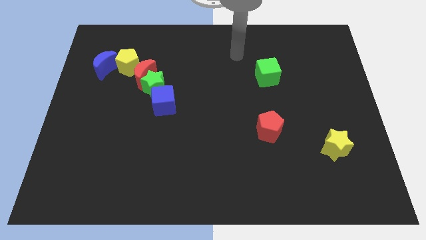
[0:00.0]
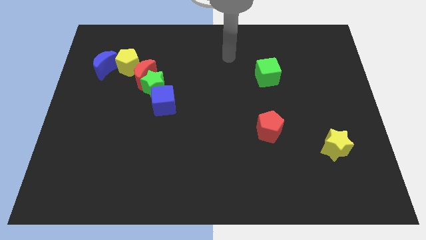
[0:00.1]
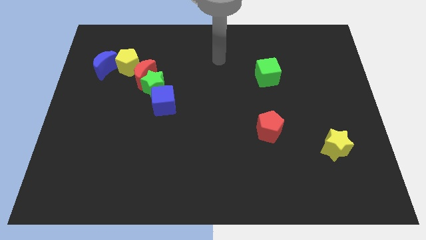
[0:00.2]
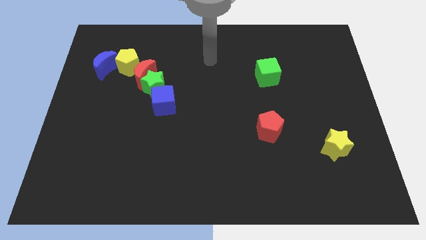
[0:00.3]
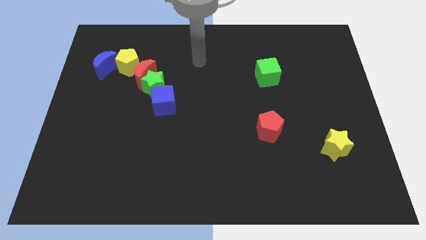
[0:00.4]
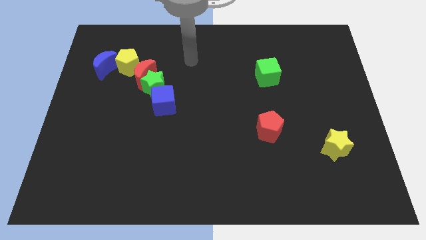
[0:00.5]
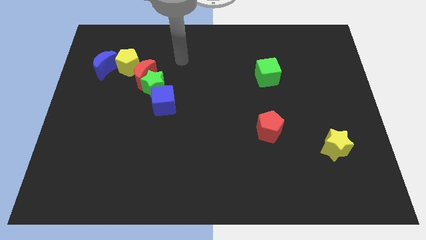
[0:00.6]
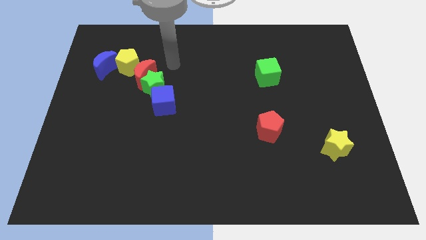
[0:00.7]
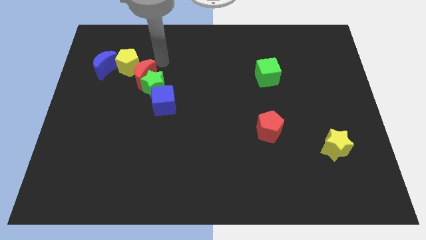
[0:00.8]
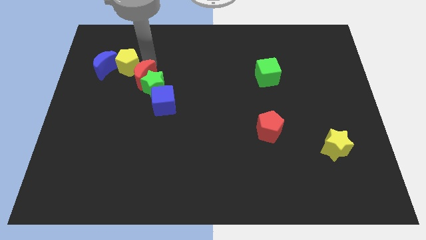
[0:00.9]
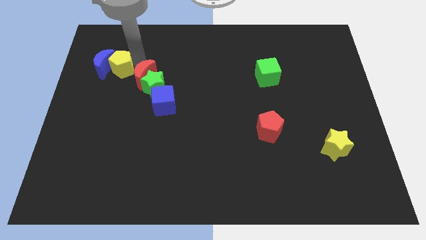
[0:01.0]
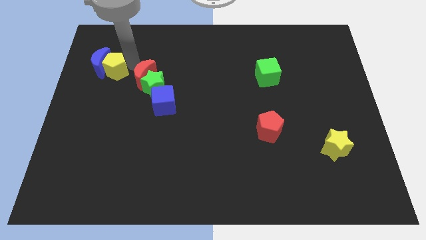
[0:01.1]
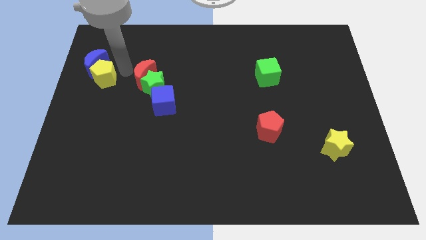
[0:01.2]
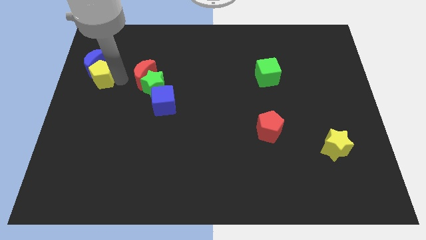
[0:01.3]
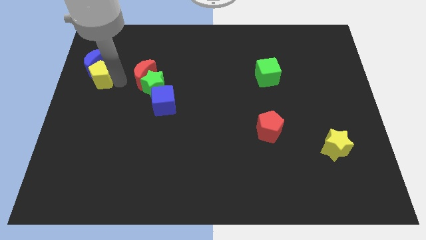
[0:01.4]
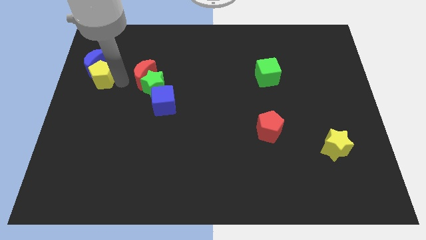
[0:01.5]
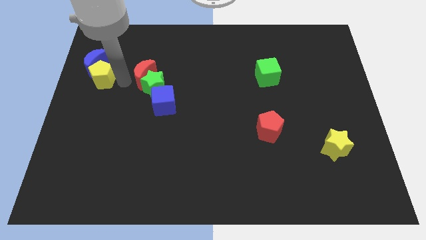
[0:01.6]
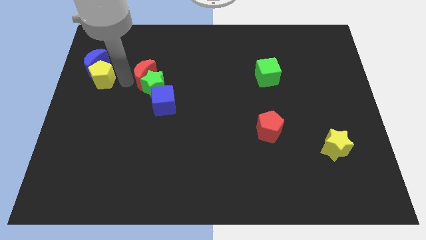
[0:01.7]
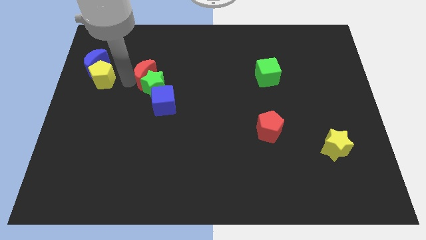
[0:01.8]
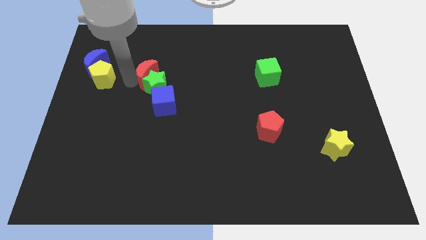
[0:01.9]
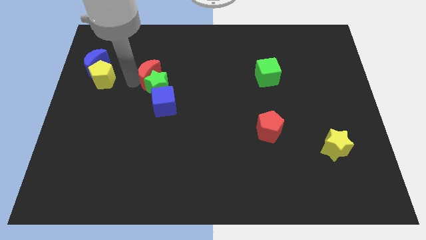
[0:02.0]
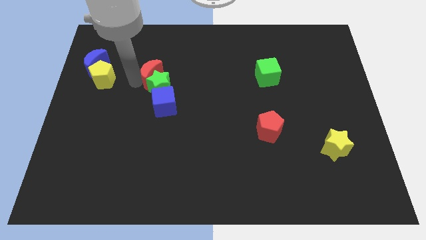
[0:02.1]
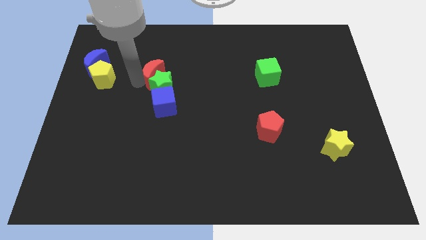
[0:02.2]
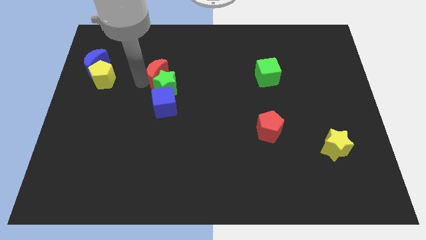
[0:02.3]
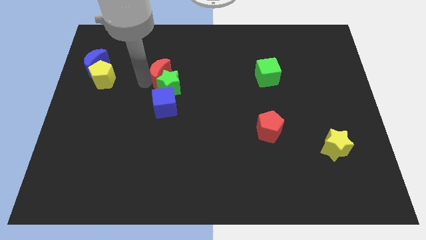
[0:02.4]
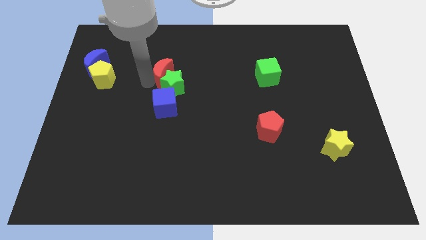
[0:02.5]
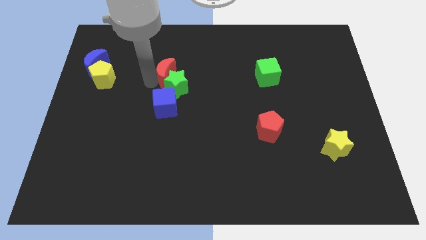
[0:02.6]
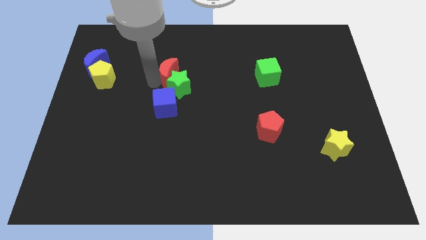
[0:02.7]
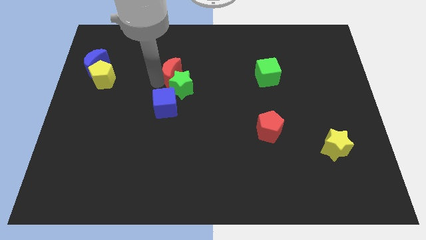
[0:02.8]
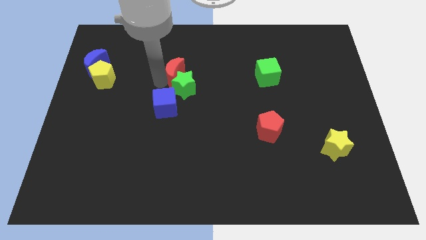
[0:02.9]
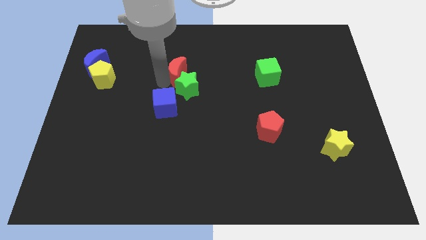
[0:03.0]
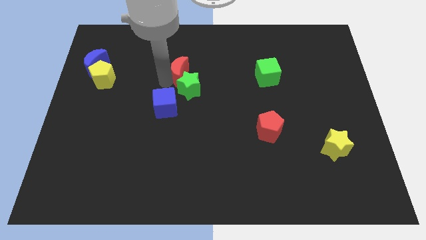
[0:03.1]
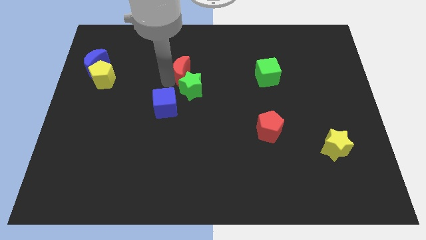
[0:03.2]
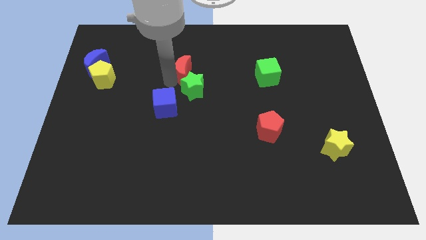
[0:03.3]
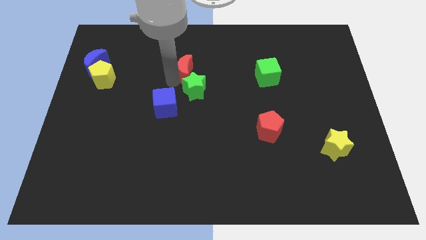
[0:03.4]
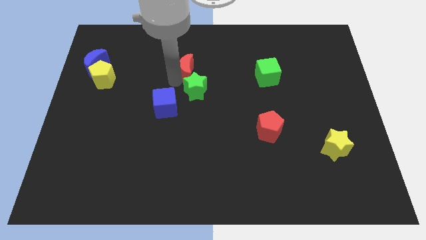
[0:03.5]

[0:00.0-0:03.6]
separate the red moon from the green star and yellow pentagon

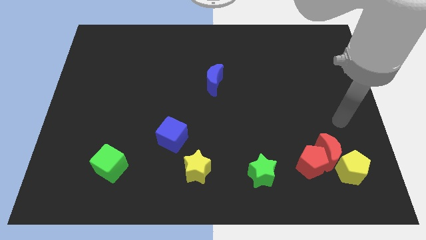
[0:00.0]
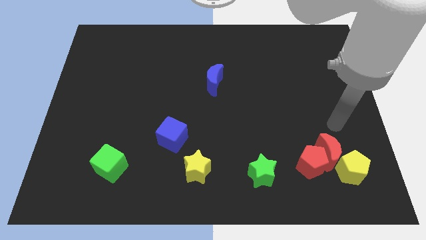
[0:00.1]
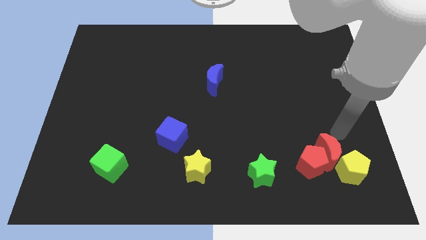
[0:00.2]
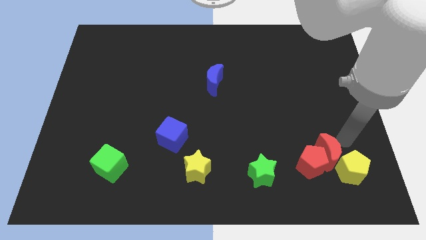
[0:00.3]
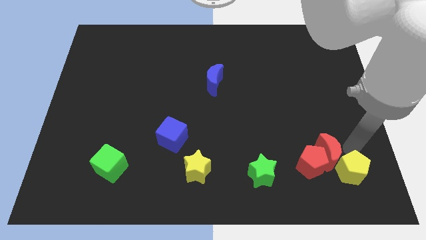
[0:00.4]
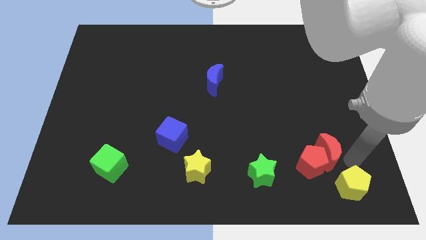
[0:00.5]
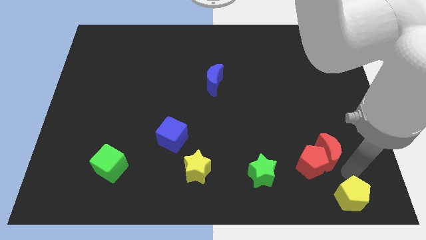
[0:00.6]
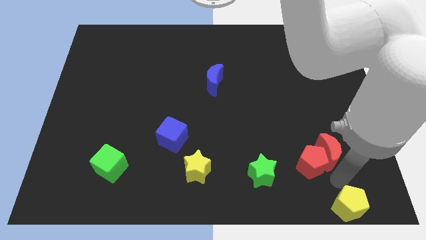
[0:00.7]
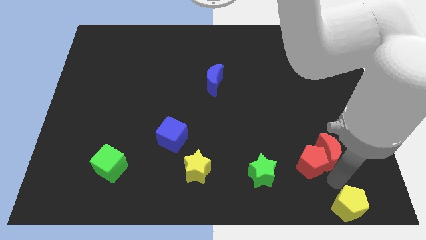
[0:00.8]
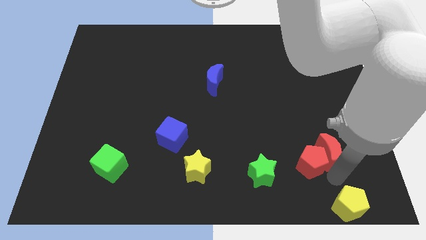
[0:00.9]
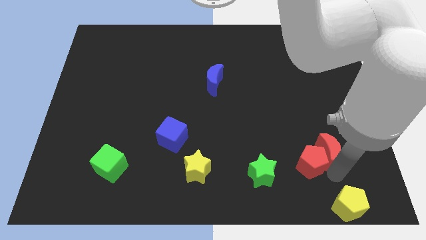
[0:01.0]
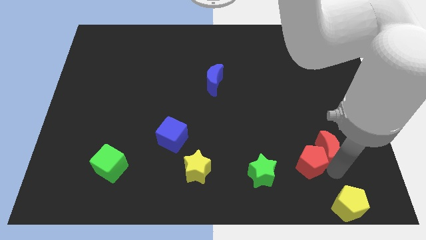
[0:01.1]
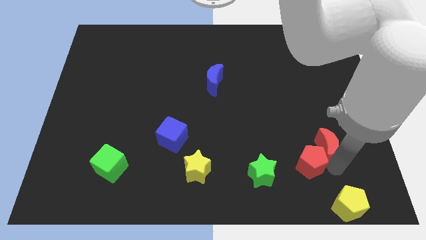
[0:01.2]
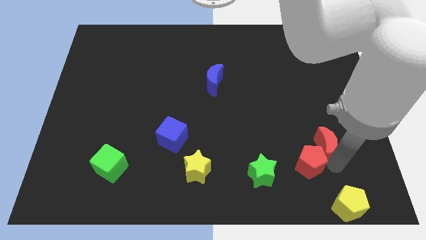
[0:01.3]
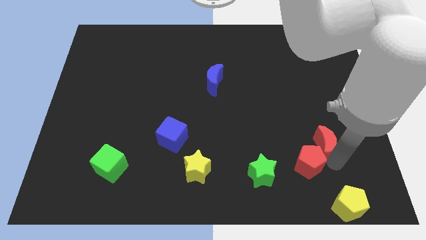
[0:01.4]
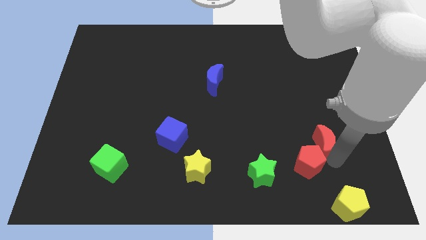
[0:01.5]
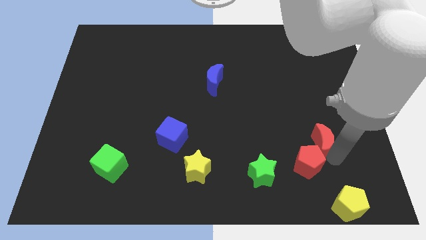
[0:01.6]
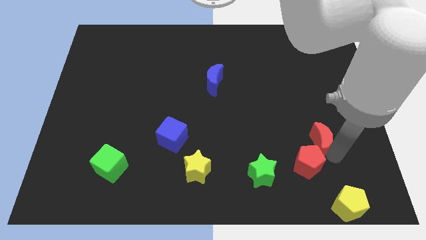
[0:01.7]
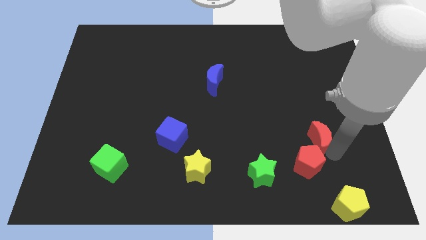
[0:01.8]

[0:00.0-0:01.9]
pull the red moon apart from the red pentagon and yellow pentagon

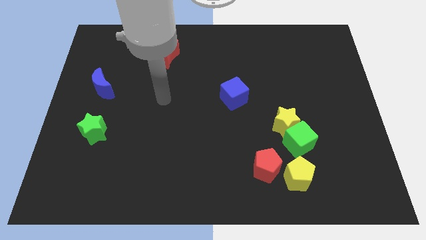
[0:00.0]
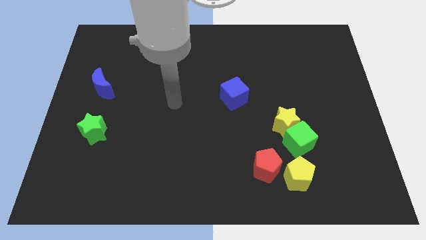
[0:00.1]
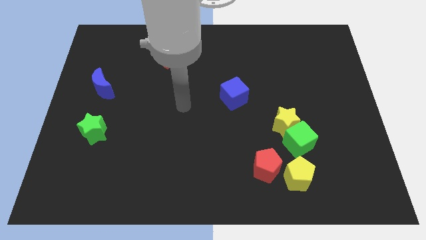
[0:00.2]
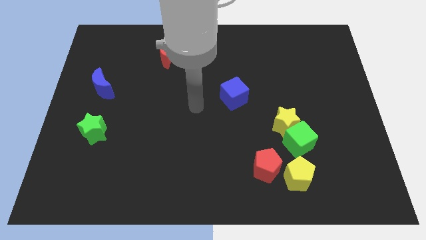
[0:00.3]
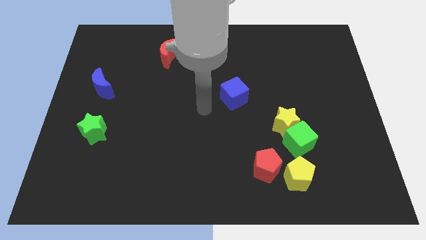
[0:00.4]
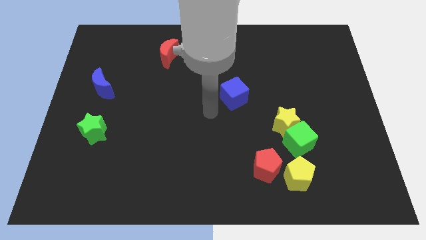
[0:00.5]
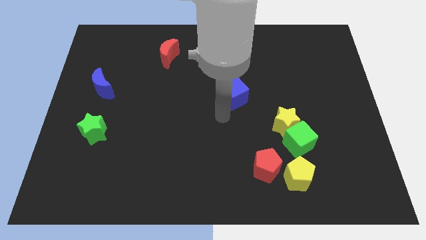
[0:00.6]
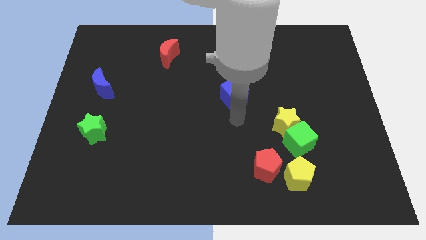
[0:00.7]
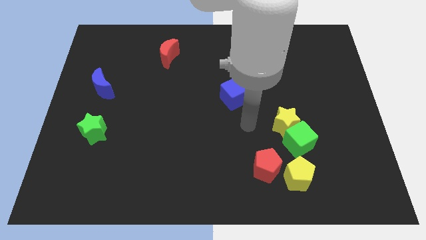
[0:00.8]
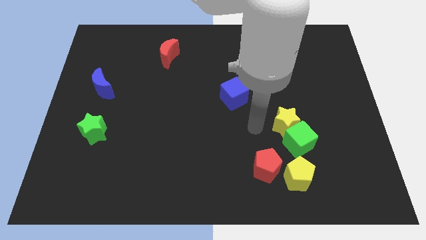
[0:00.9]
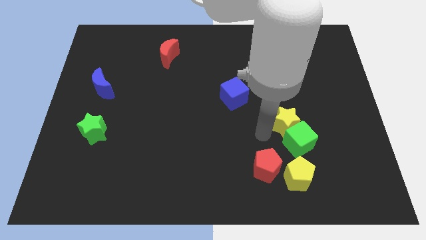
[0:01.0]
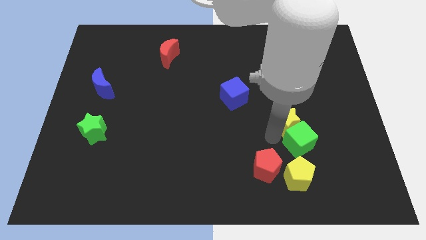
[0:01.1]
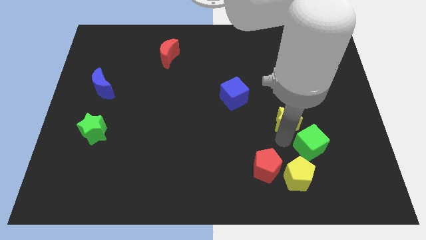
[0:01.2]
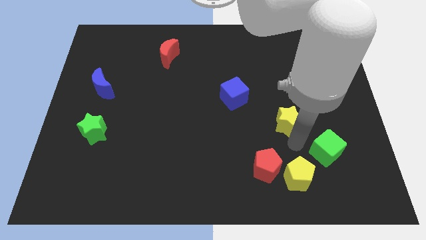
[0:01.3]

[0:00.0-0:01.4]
move the yellow star away from the green cube

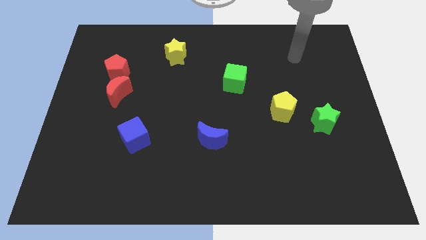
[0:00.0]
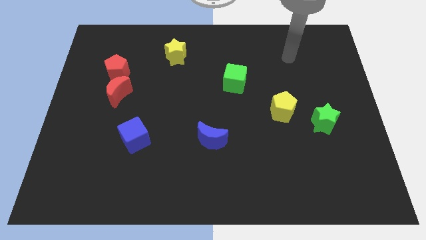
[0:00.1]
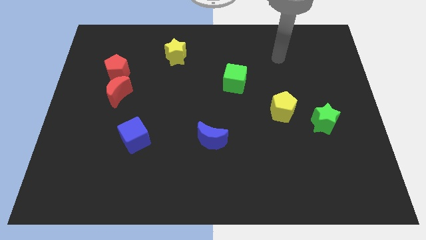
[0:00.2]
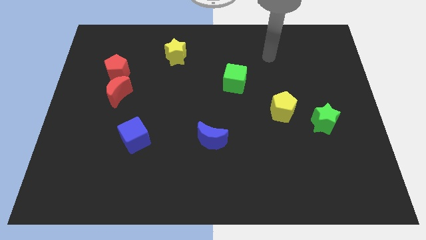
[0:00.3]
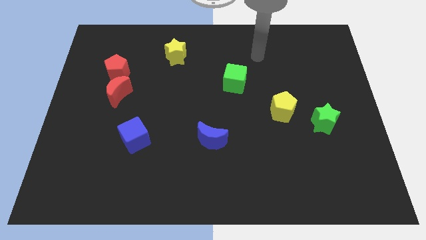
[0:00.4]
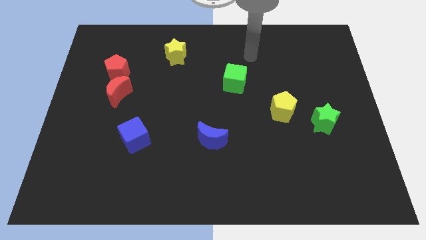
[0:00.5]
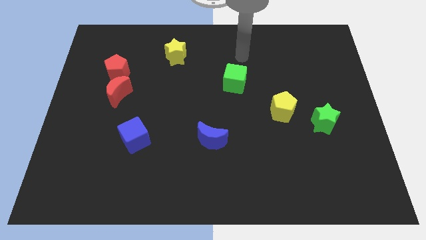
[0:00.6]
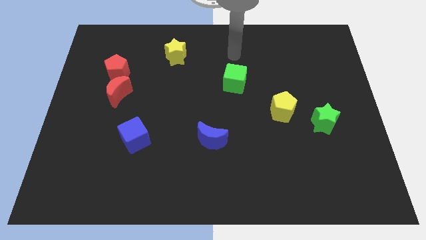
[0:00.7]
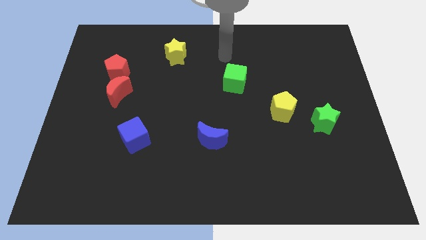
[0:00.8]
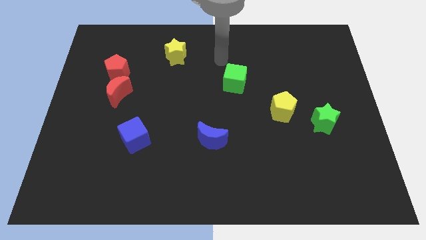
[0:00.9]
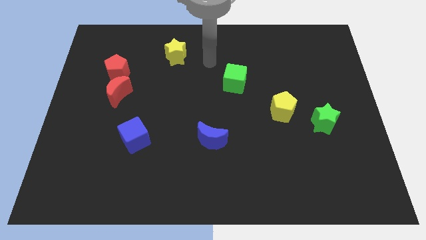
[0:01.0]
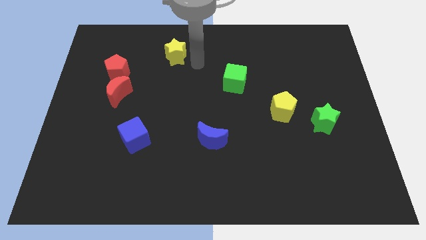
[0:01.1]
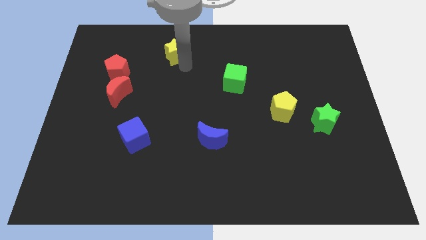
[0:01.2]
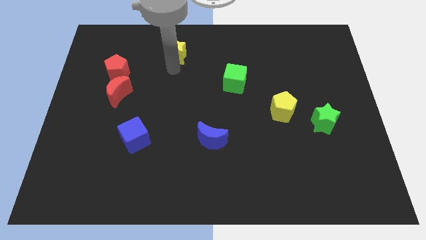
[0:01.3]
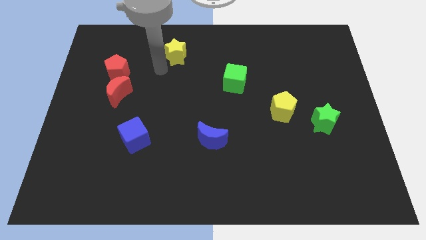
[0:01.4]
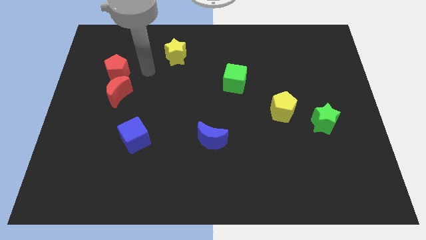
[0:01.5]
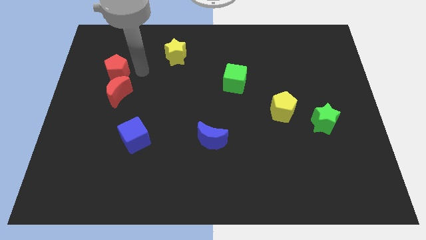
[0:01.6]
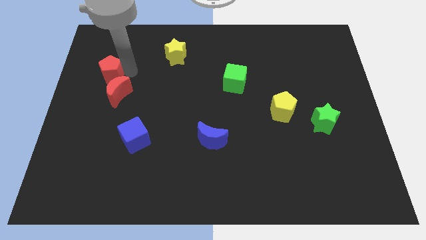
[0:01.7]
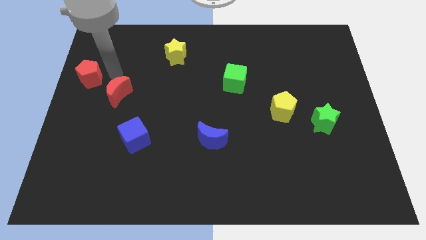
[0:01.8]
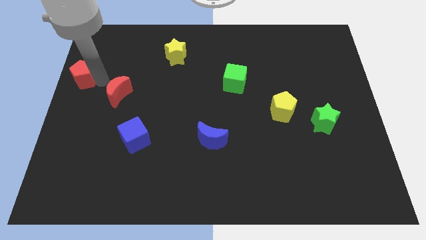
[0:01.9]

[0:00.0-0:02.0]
pull the red moon apart from the red pentagon

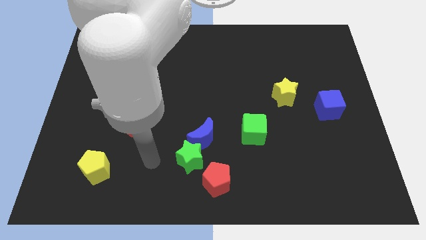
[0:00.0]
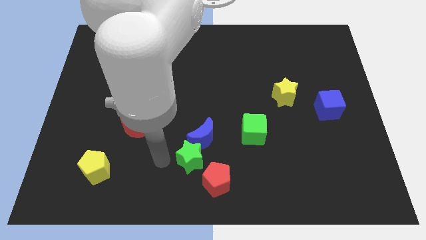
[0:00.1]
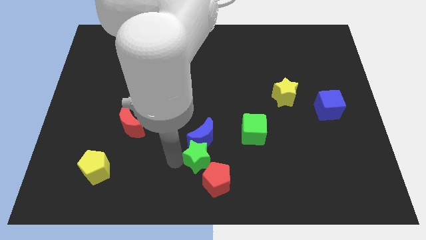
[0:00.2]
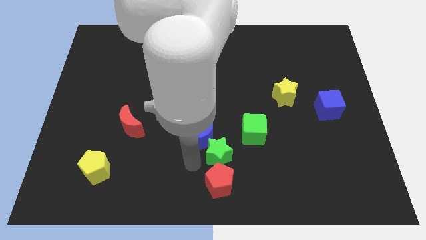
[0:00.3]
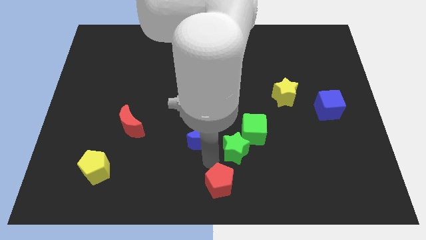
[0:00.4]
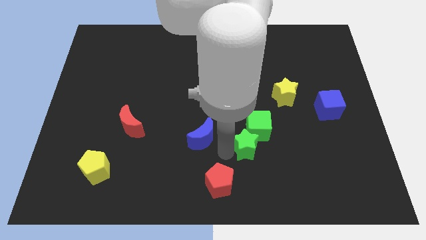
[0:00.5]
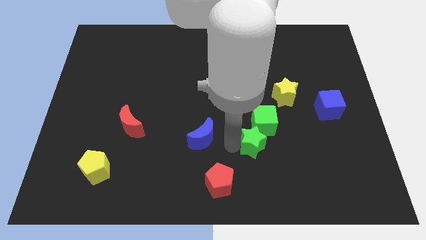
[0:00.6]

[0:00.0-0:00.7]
pull the blue moon apart from the green star
